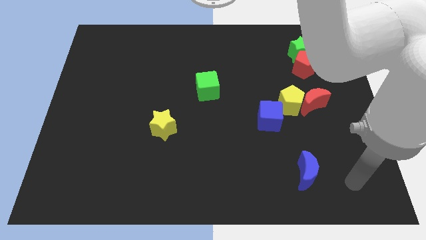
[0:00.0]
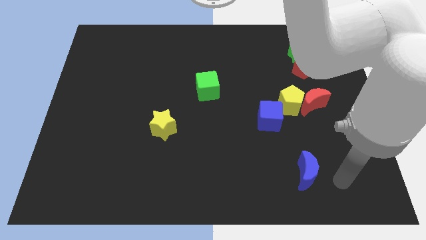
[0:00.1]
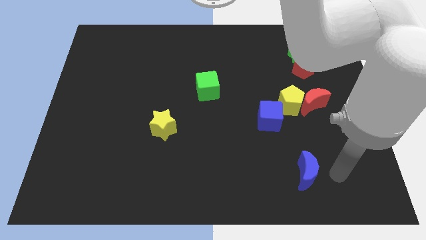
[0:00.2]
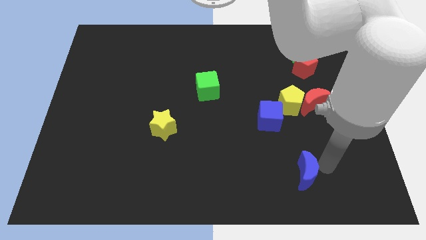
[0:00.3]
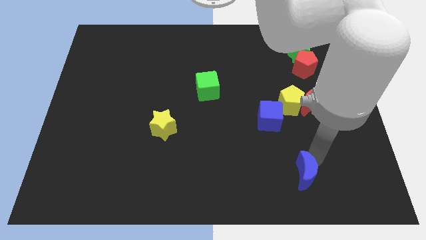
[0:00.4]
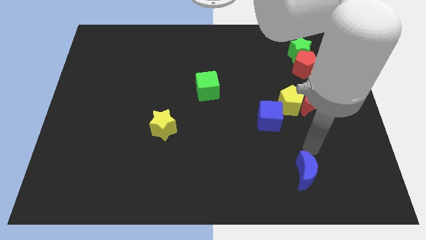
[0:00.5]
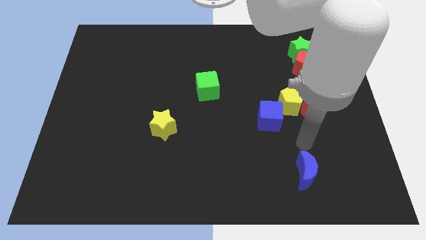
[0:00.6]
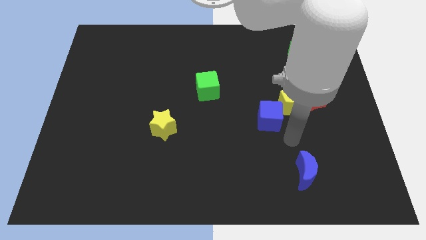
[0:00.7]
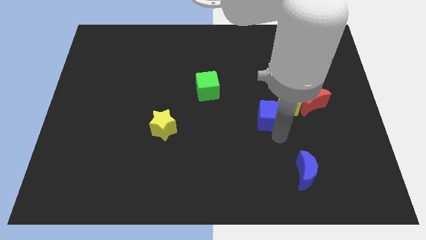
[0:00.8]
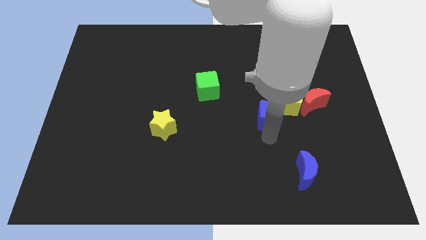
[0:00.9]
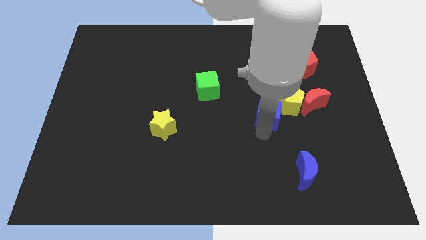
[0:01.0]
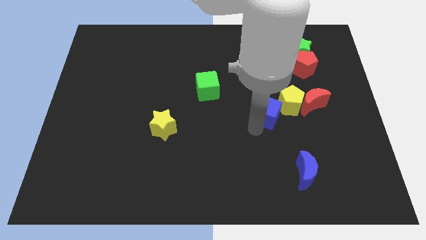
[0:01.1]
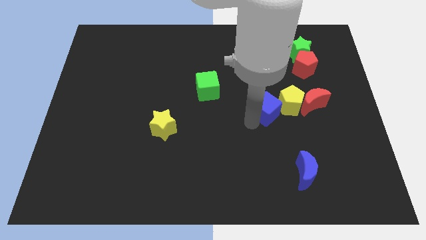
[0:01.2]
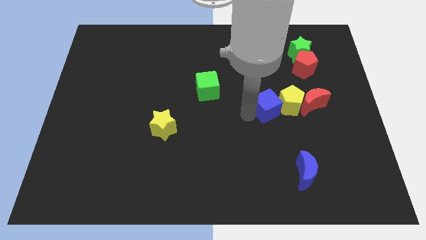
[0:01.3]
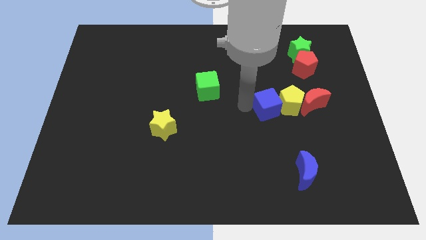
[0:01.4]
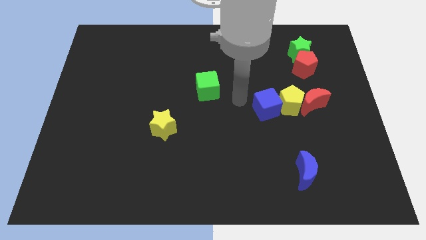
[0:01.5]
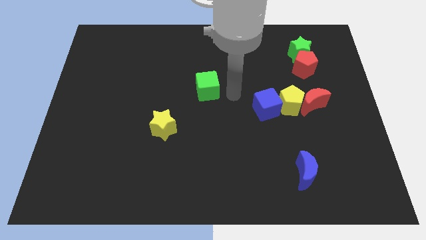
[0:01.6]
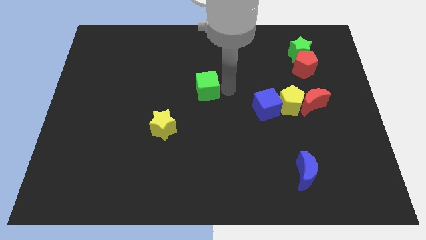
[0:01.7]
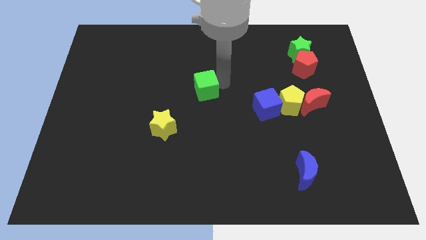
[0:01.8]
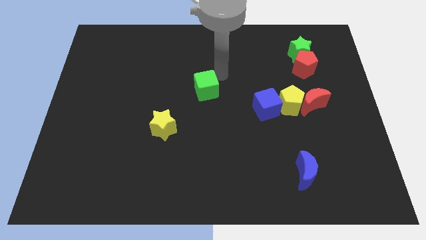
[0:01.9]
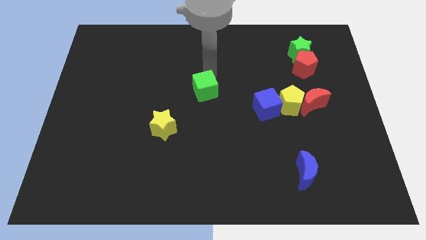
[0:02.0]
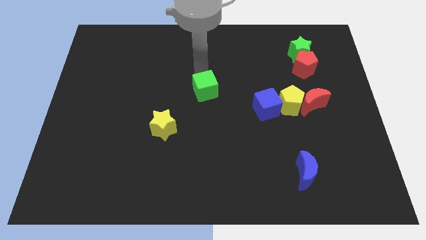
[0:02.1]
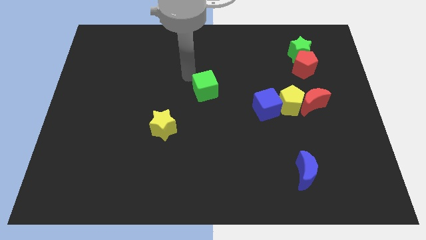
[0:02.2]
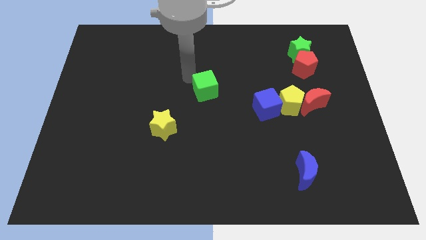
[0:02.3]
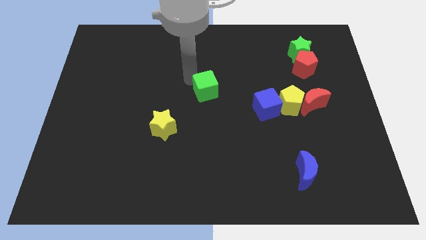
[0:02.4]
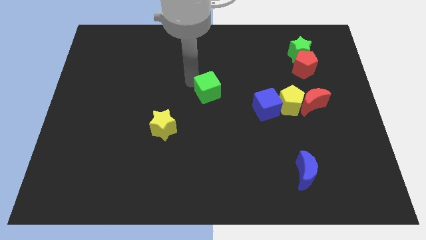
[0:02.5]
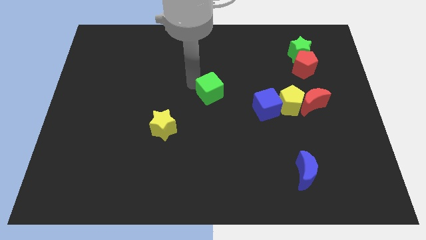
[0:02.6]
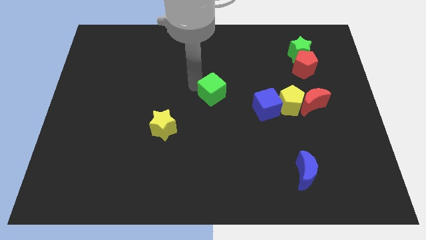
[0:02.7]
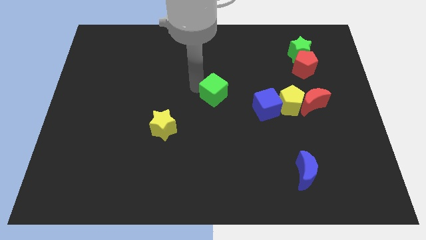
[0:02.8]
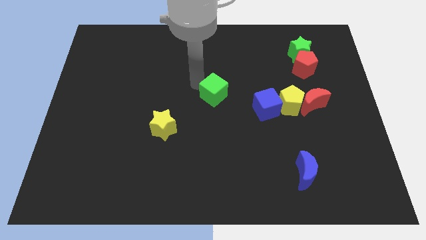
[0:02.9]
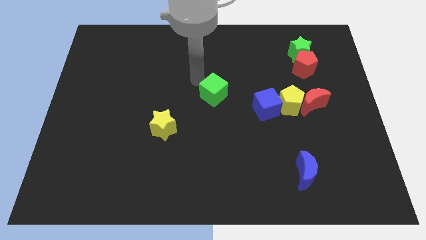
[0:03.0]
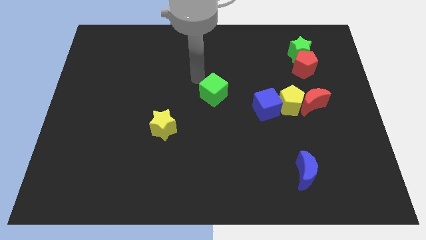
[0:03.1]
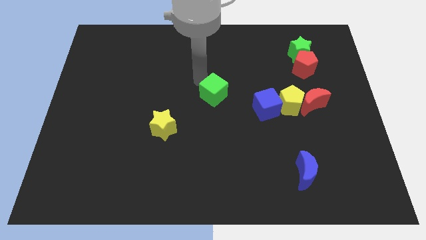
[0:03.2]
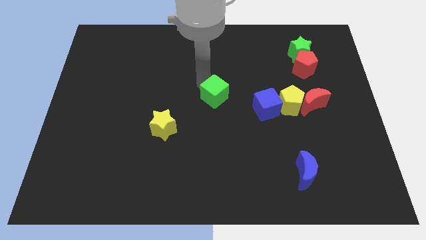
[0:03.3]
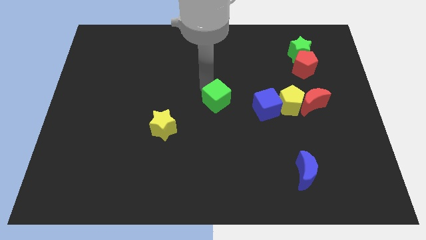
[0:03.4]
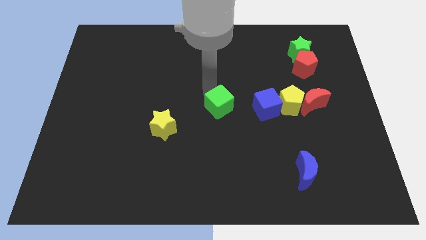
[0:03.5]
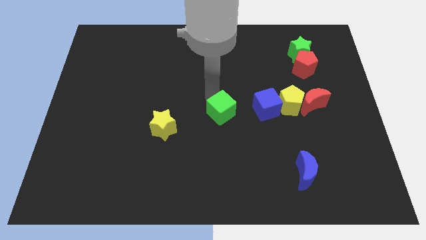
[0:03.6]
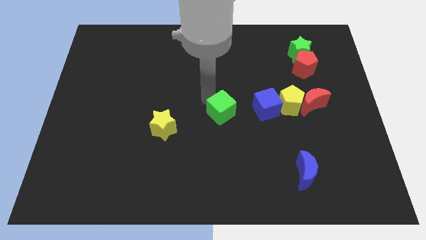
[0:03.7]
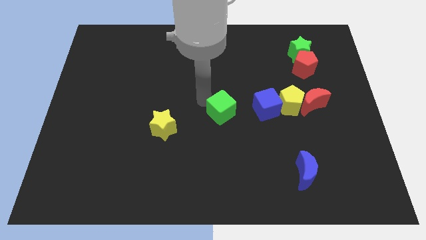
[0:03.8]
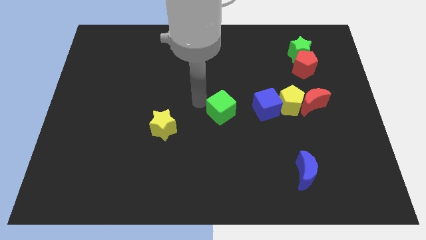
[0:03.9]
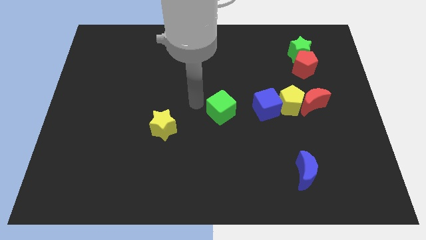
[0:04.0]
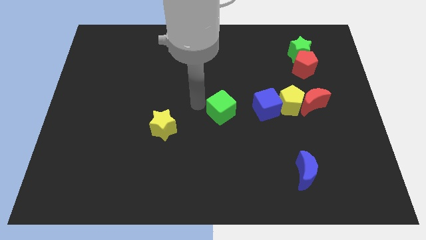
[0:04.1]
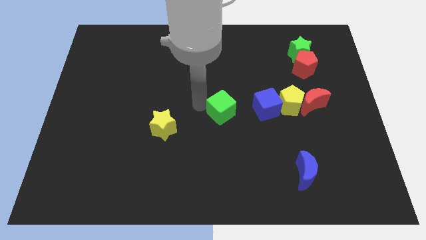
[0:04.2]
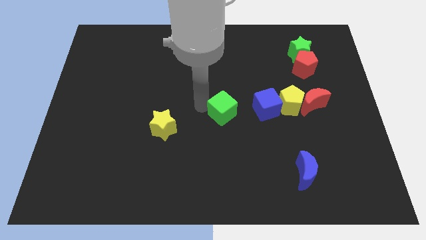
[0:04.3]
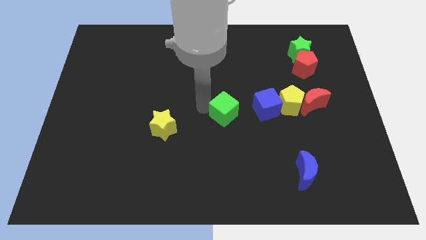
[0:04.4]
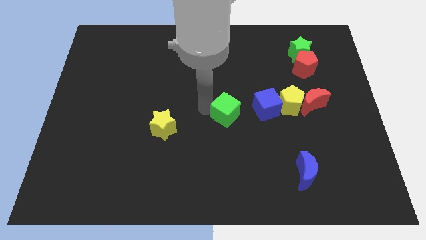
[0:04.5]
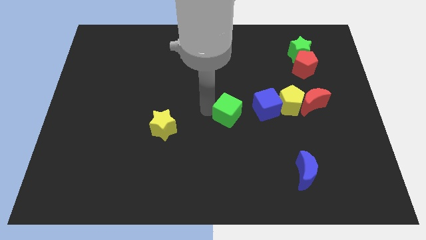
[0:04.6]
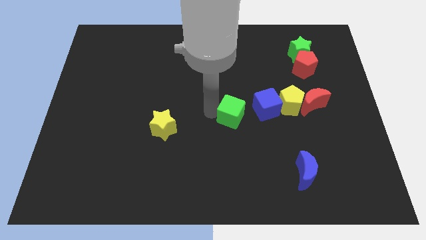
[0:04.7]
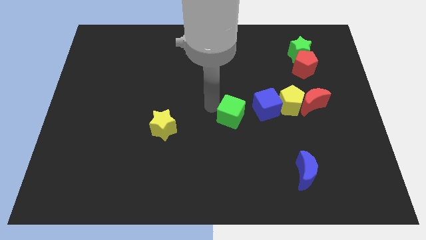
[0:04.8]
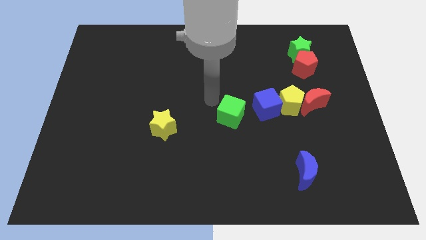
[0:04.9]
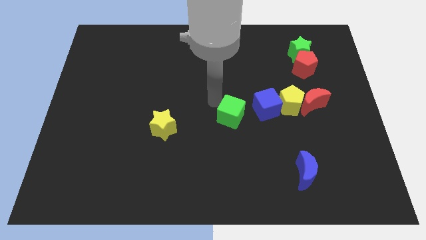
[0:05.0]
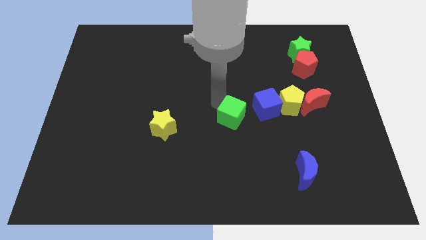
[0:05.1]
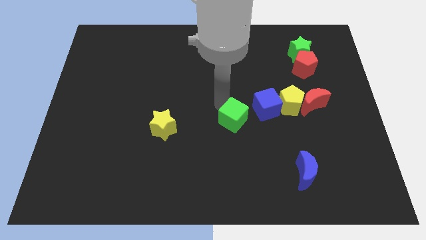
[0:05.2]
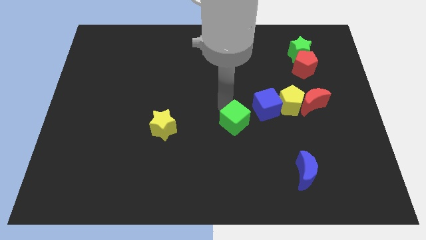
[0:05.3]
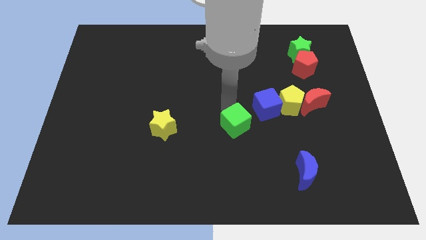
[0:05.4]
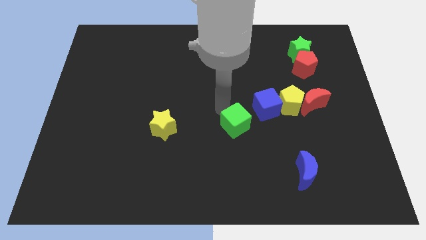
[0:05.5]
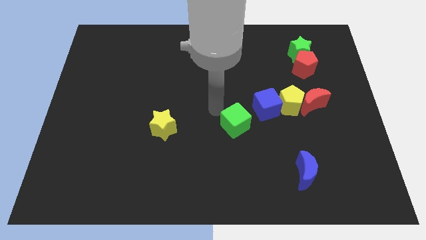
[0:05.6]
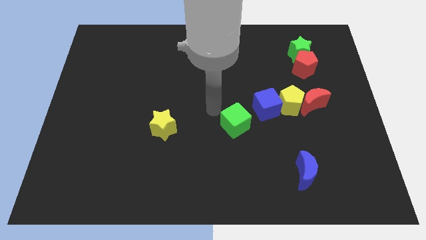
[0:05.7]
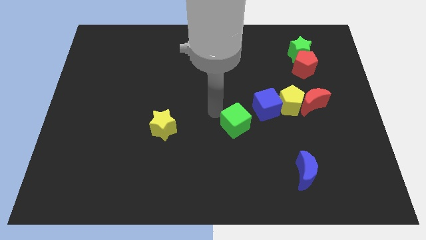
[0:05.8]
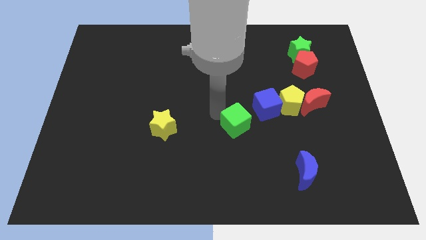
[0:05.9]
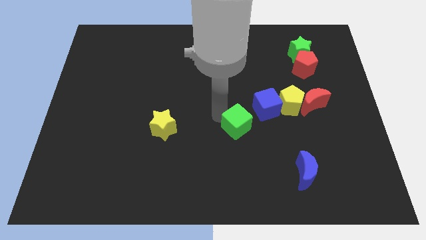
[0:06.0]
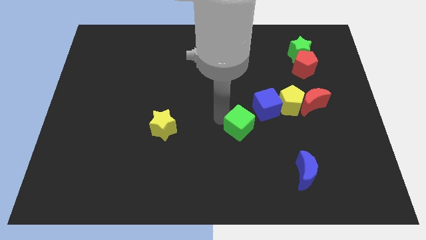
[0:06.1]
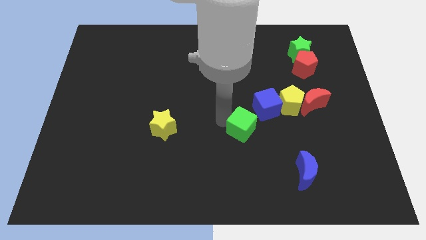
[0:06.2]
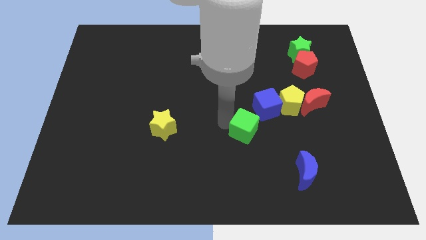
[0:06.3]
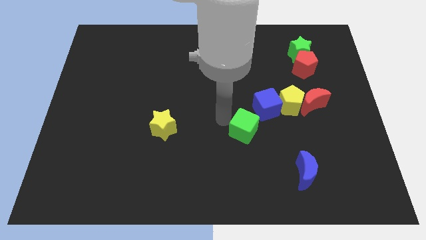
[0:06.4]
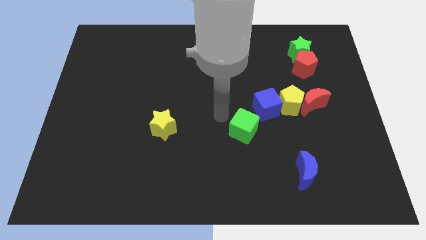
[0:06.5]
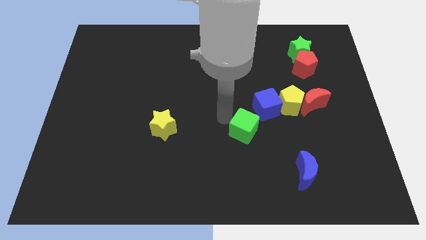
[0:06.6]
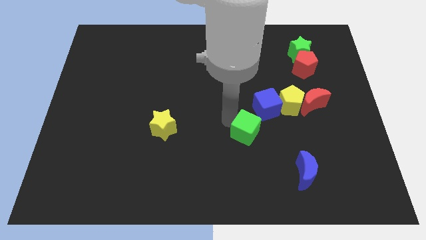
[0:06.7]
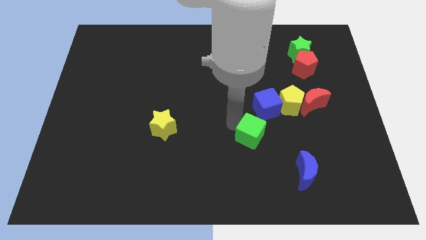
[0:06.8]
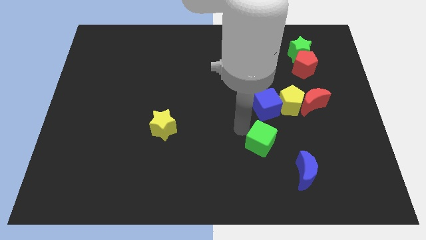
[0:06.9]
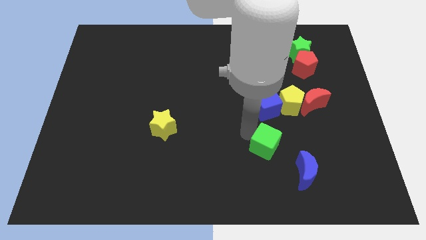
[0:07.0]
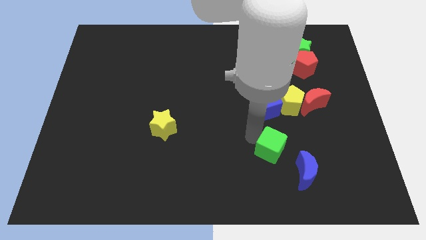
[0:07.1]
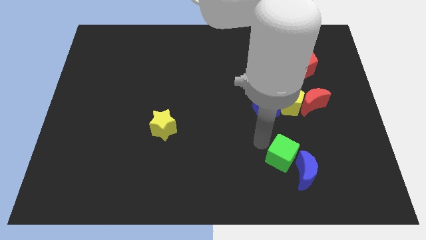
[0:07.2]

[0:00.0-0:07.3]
push the green cube next to the blue moon
